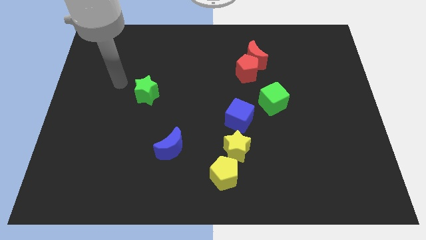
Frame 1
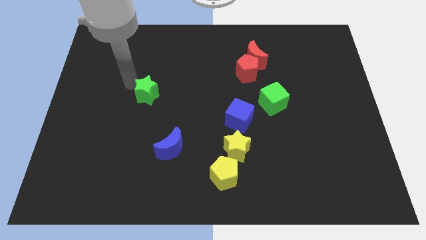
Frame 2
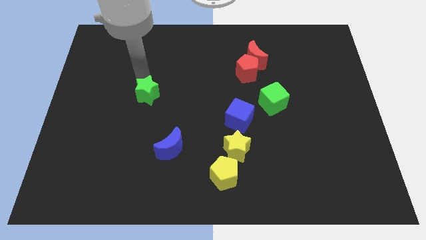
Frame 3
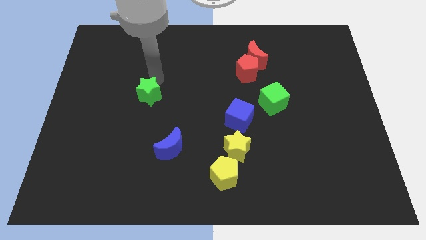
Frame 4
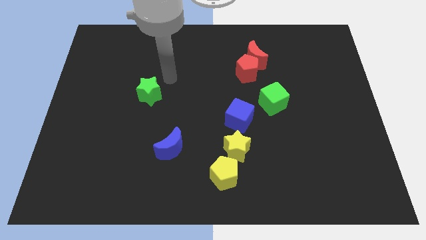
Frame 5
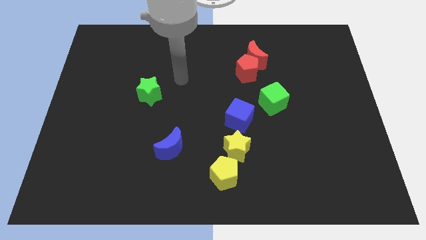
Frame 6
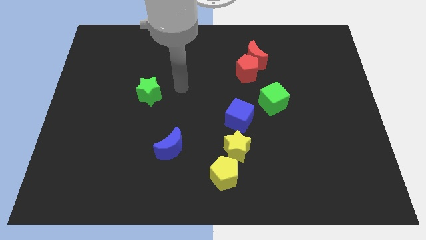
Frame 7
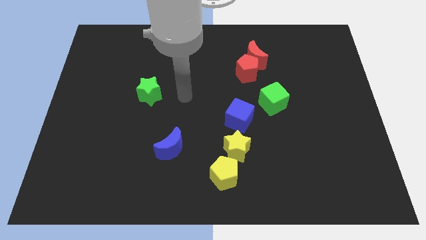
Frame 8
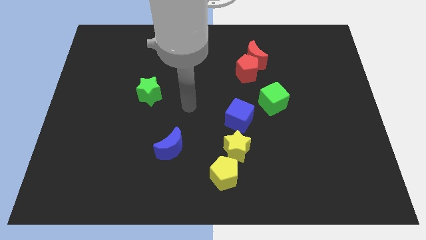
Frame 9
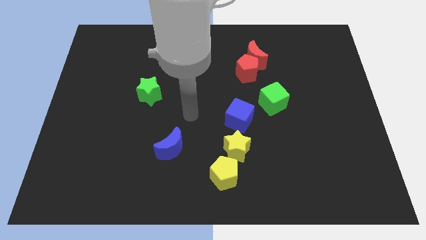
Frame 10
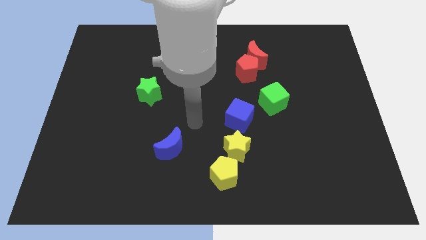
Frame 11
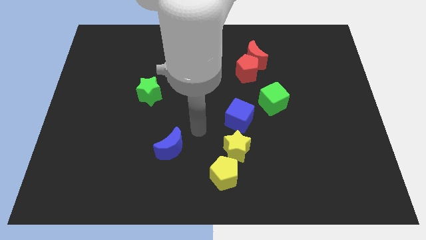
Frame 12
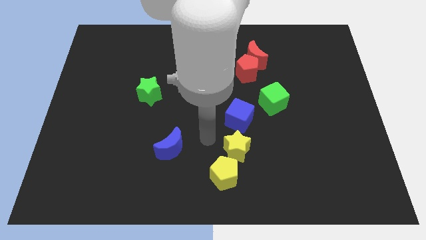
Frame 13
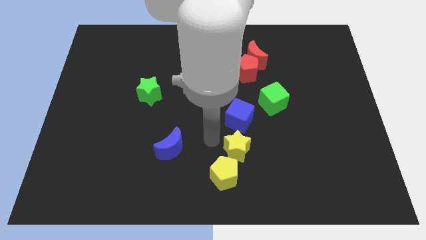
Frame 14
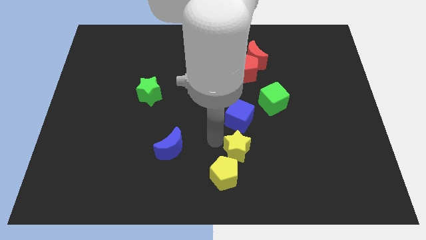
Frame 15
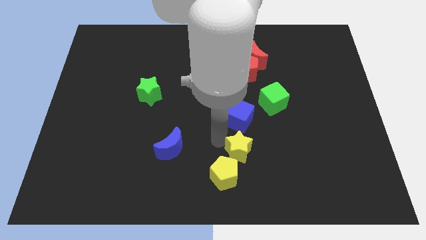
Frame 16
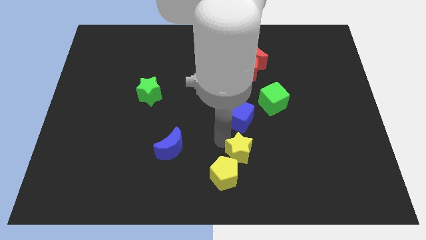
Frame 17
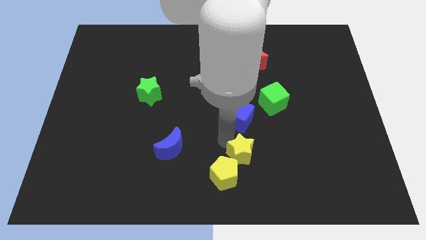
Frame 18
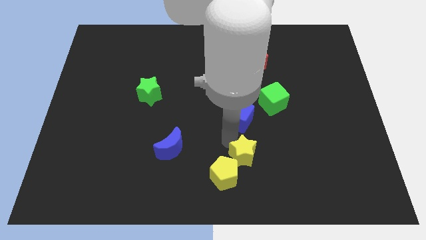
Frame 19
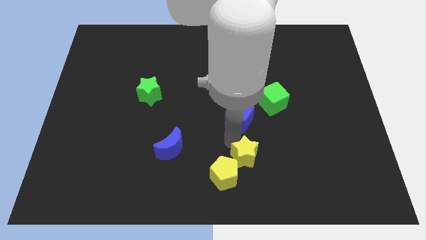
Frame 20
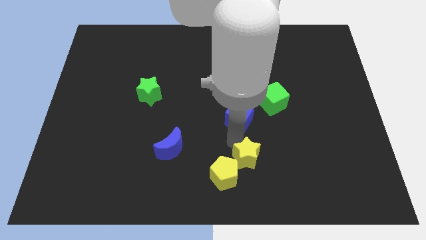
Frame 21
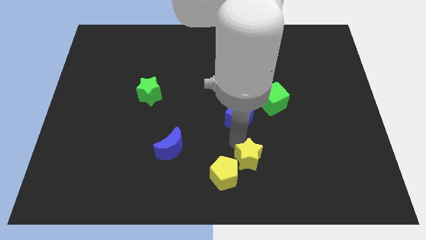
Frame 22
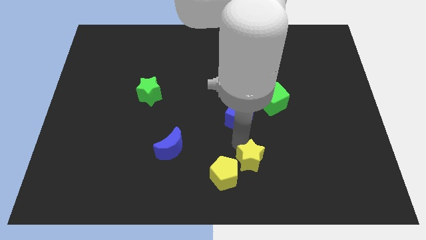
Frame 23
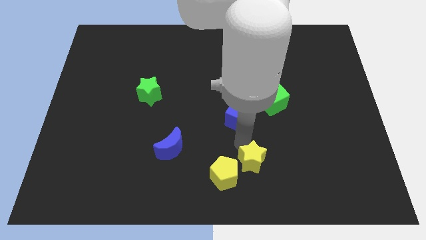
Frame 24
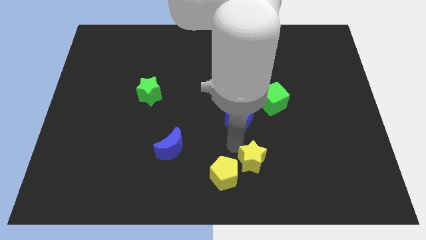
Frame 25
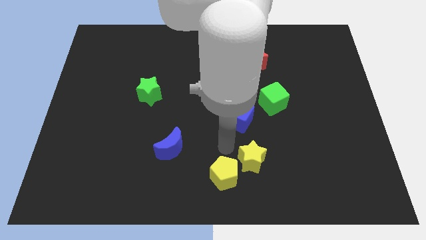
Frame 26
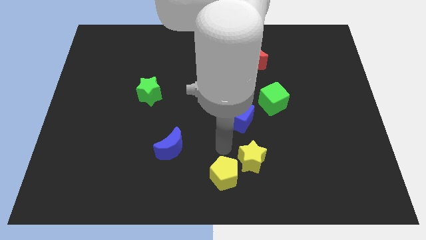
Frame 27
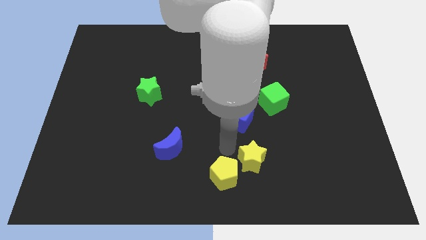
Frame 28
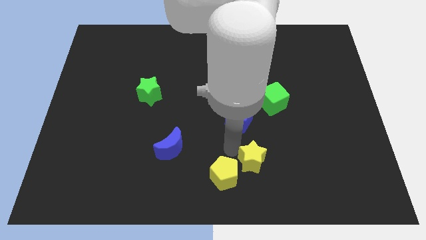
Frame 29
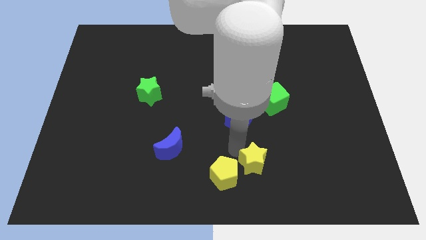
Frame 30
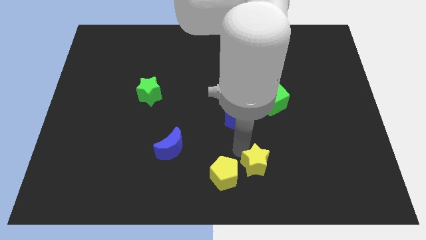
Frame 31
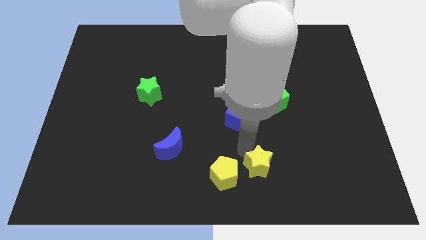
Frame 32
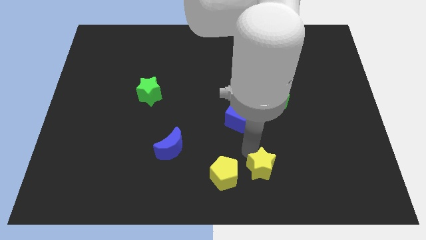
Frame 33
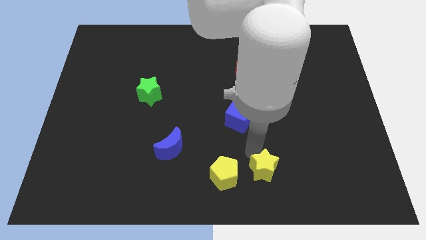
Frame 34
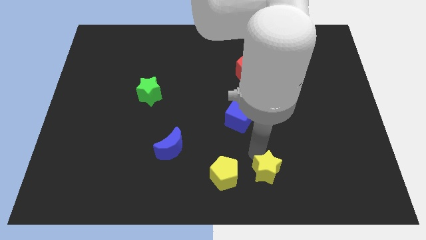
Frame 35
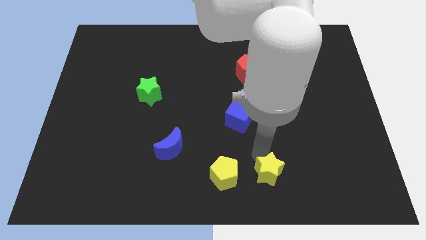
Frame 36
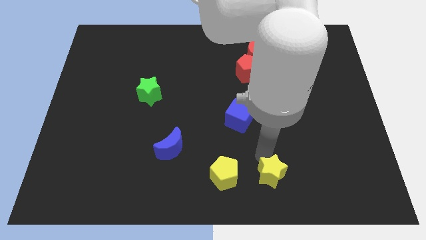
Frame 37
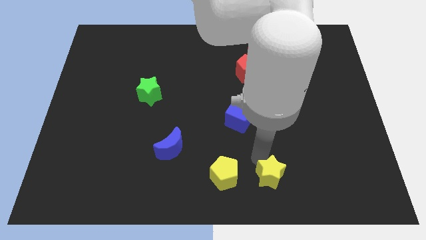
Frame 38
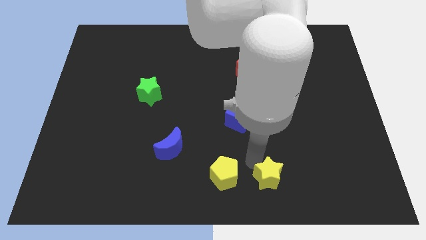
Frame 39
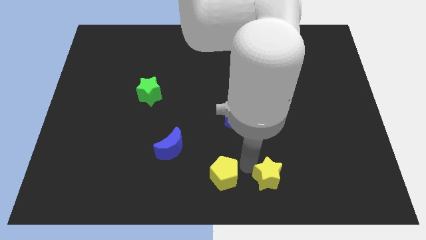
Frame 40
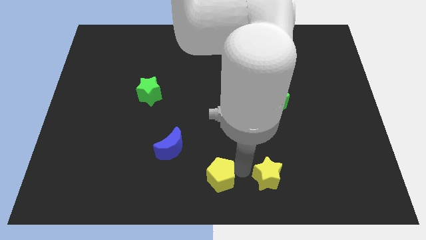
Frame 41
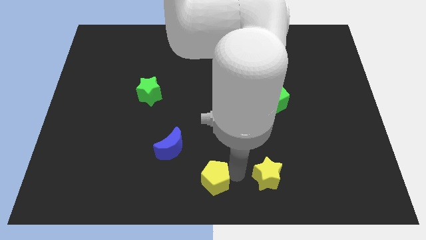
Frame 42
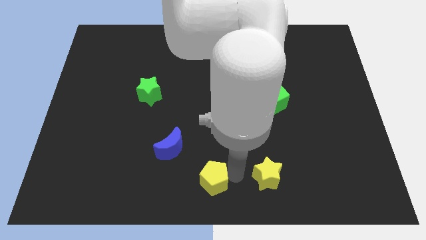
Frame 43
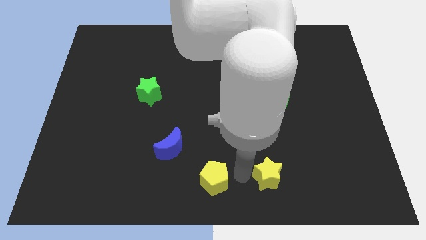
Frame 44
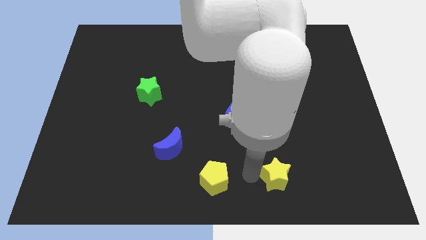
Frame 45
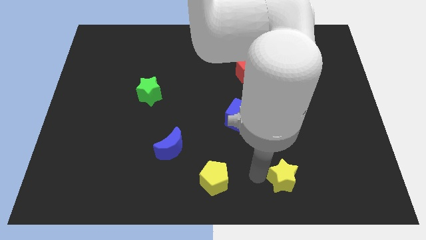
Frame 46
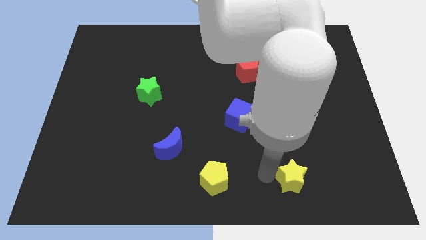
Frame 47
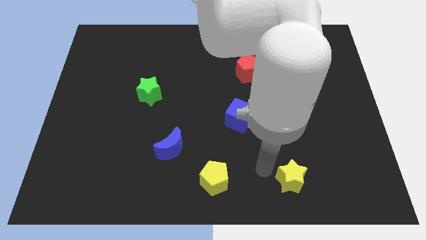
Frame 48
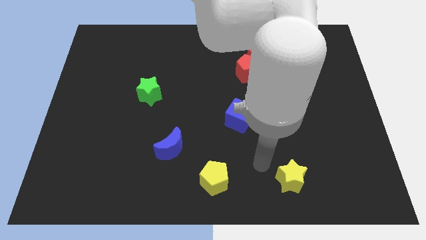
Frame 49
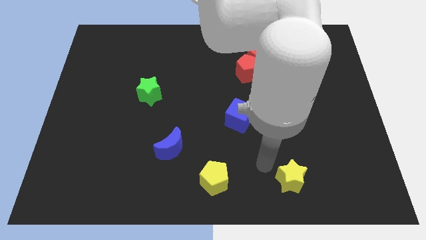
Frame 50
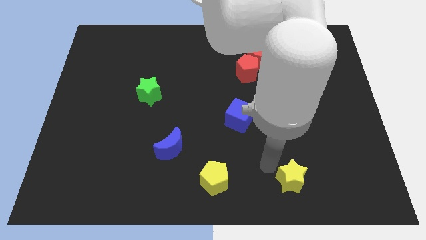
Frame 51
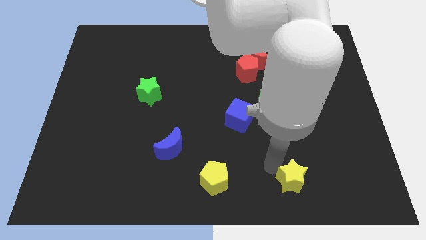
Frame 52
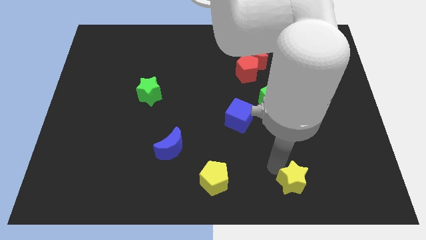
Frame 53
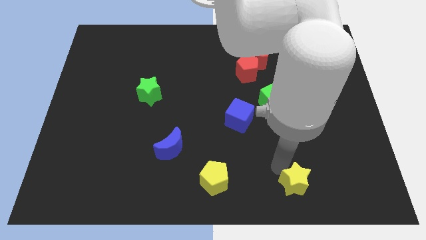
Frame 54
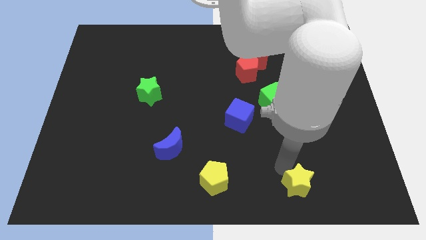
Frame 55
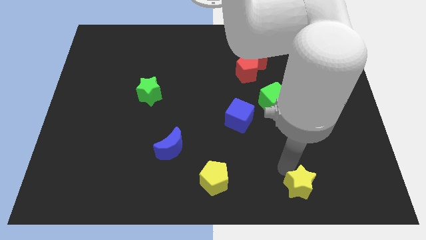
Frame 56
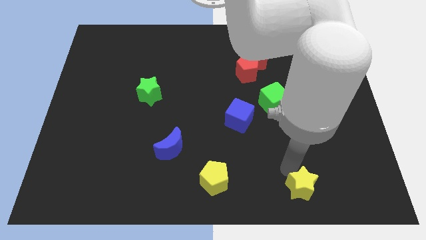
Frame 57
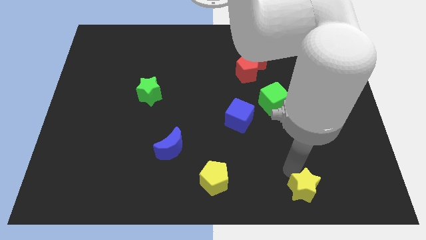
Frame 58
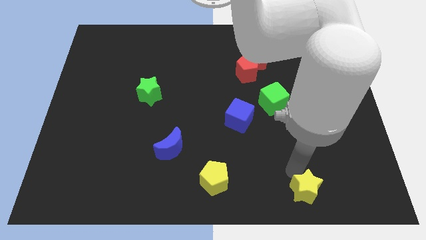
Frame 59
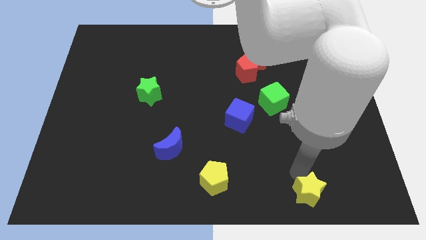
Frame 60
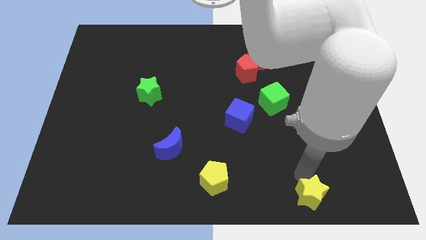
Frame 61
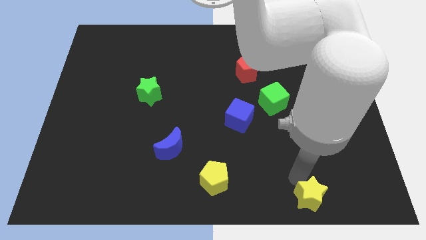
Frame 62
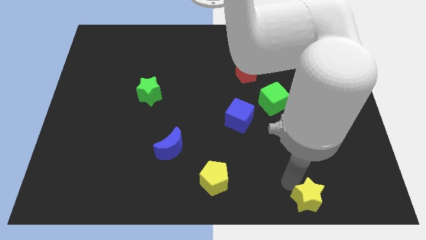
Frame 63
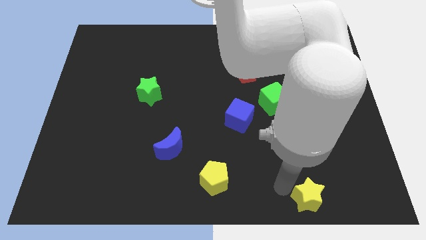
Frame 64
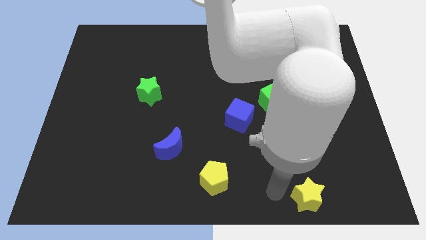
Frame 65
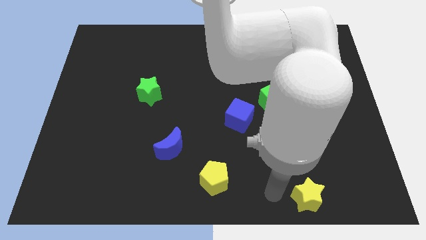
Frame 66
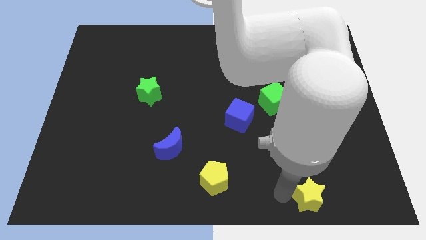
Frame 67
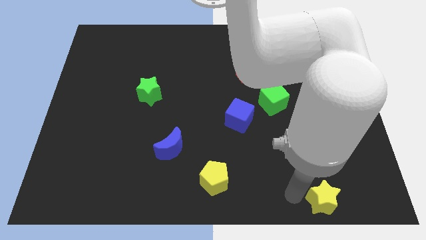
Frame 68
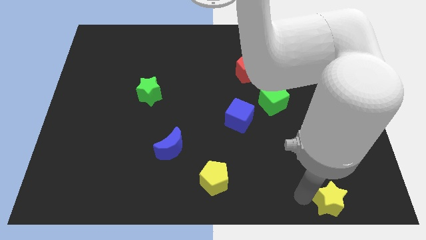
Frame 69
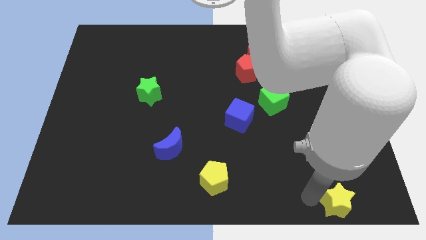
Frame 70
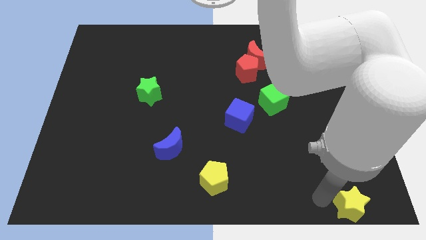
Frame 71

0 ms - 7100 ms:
push the yellow star to the bottom right of the board
